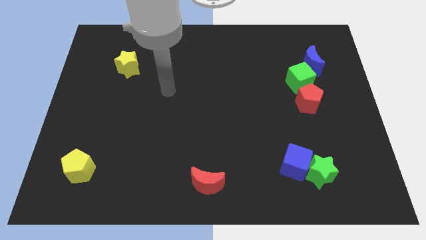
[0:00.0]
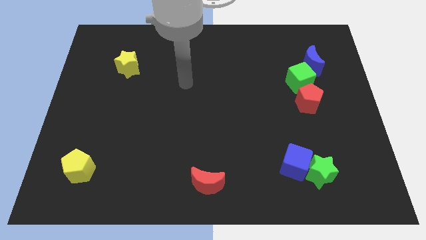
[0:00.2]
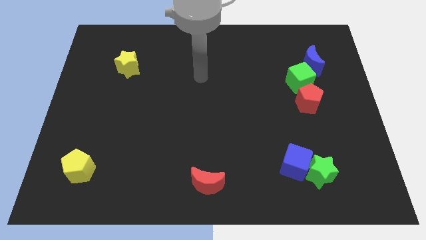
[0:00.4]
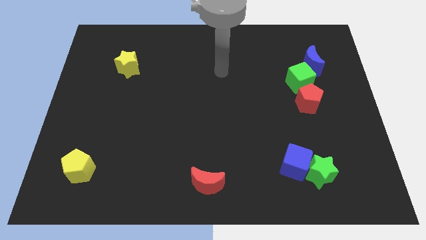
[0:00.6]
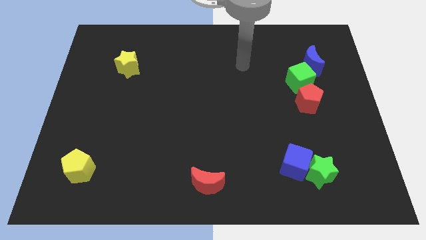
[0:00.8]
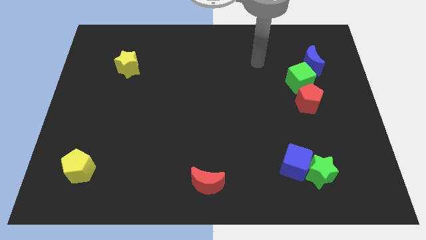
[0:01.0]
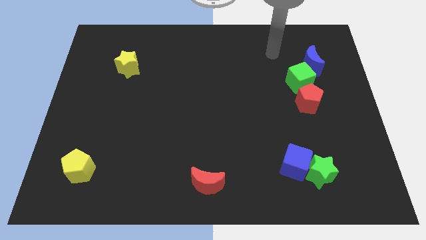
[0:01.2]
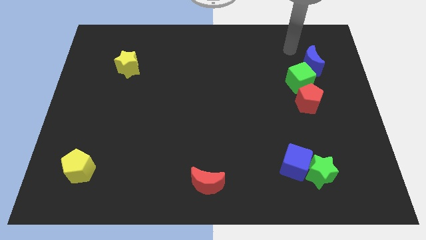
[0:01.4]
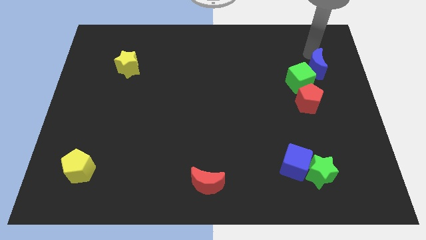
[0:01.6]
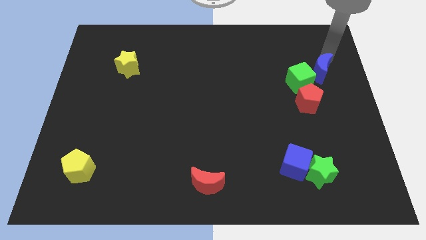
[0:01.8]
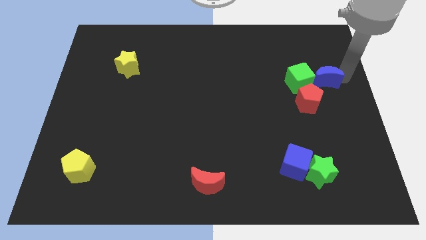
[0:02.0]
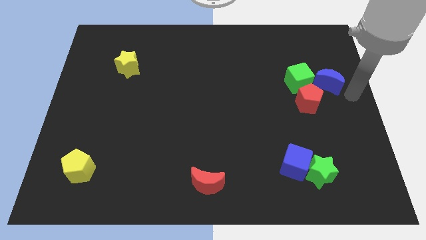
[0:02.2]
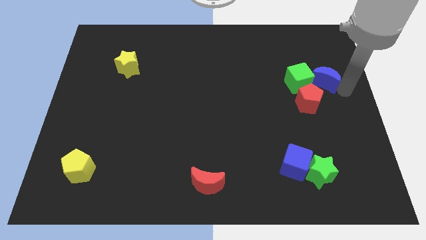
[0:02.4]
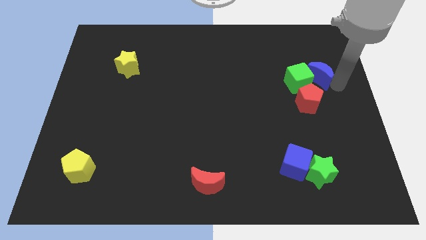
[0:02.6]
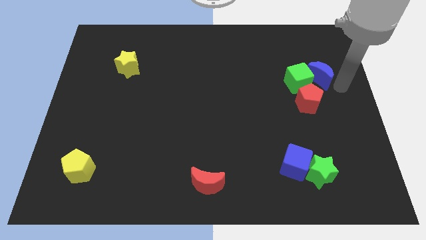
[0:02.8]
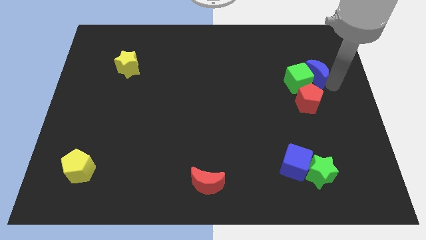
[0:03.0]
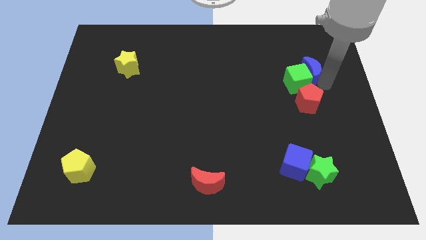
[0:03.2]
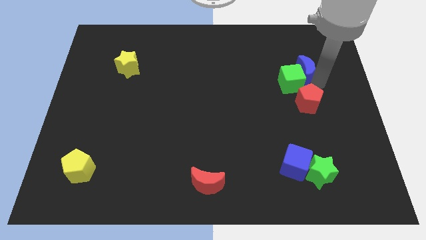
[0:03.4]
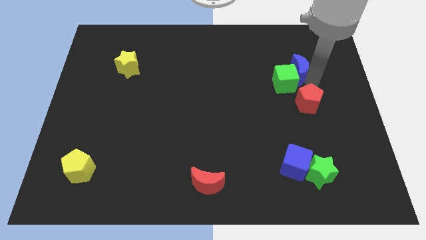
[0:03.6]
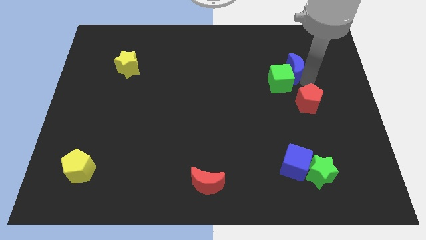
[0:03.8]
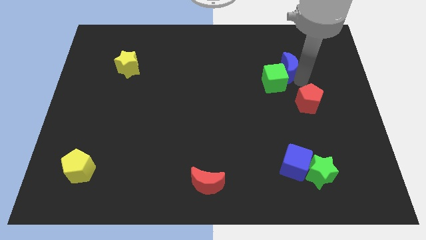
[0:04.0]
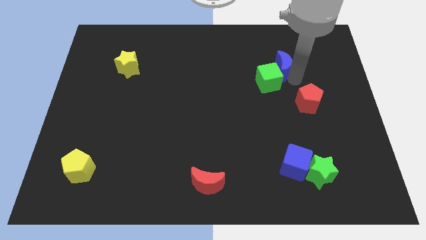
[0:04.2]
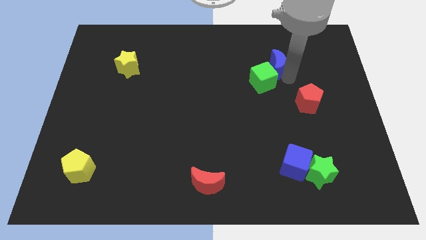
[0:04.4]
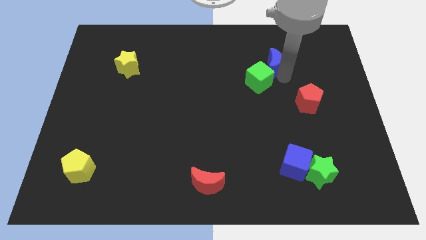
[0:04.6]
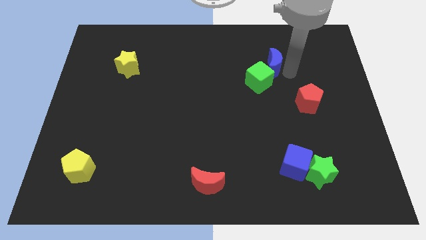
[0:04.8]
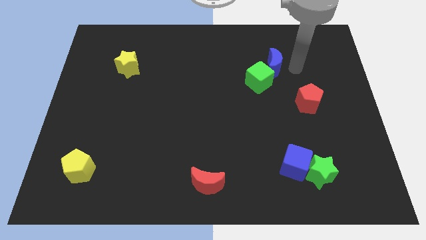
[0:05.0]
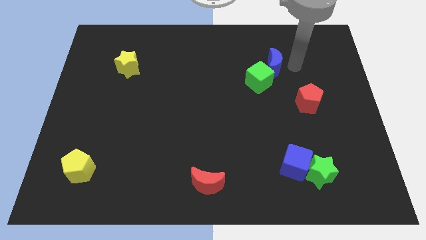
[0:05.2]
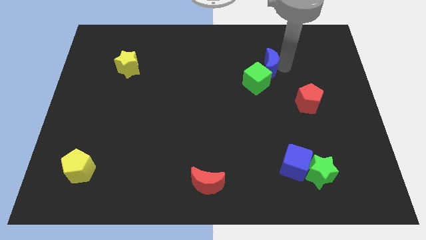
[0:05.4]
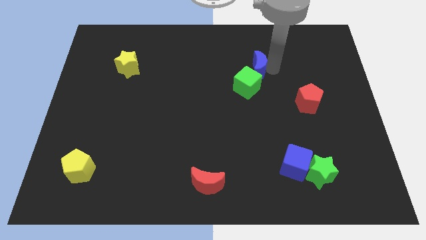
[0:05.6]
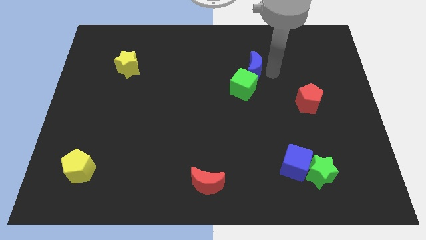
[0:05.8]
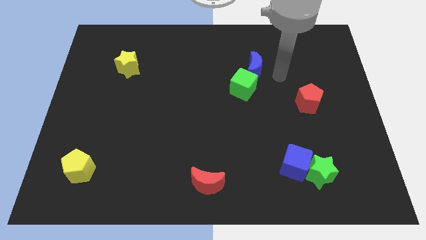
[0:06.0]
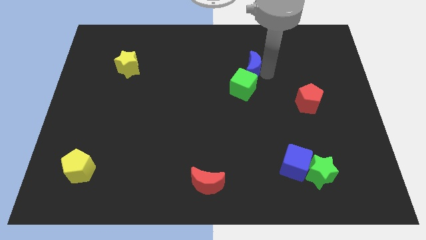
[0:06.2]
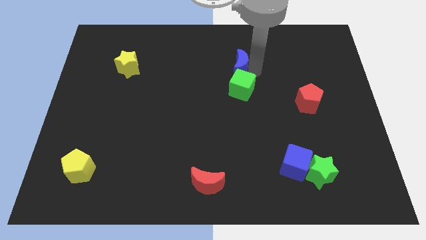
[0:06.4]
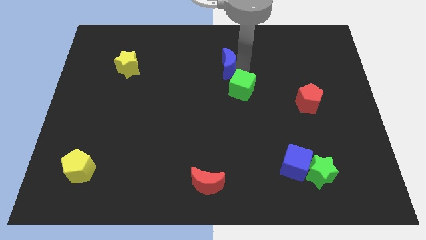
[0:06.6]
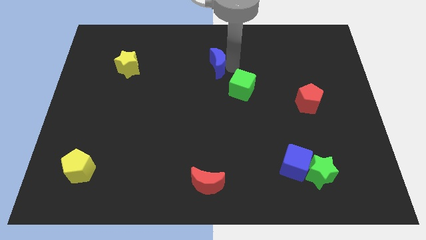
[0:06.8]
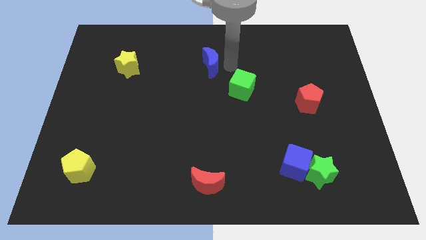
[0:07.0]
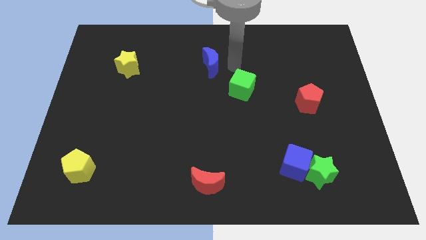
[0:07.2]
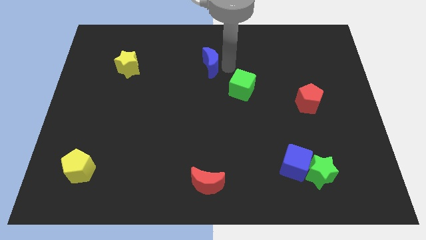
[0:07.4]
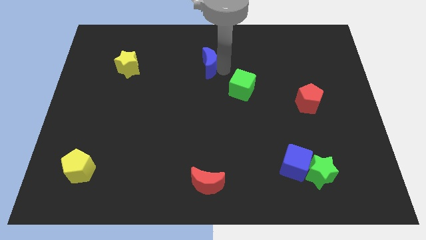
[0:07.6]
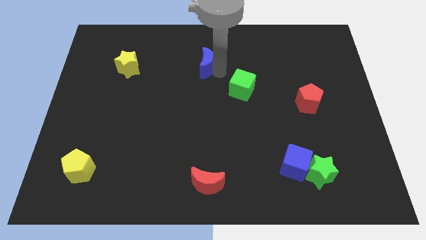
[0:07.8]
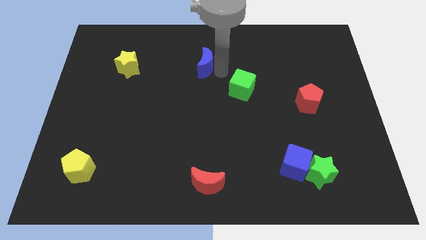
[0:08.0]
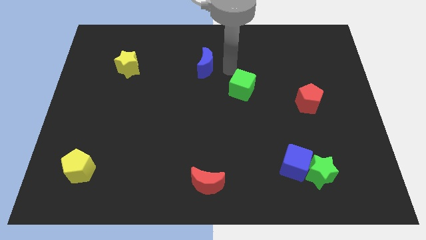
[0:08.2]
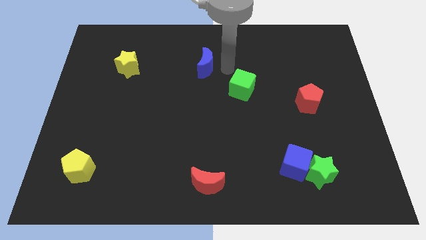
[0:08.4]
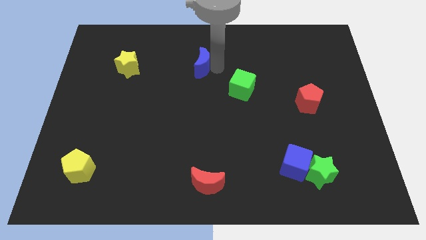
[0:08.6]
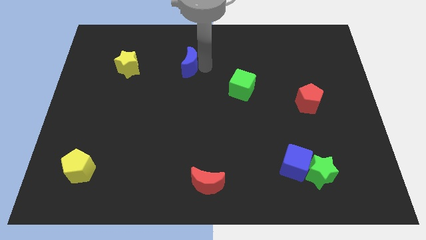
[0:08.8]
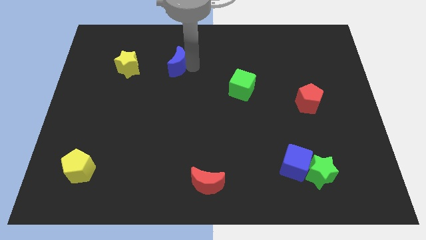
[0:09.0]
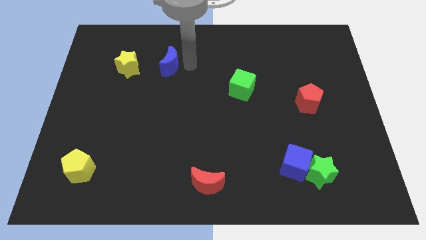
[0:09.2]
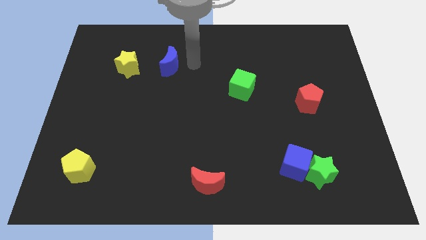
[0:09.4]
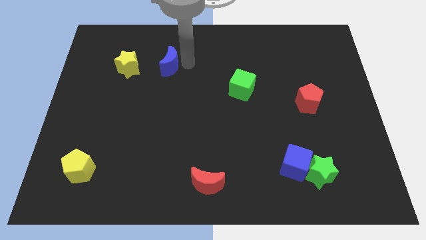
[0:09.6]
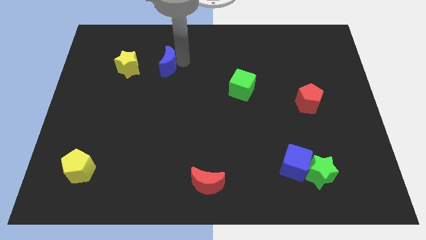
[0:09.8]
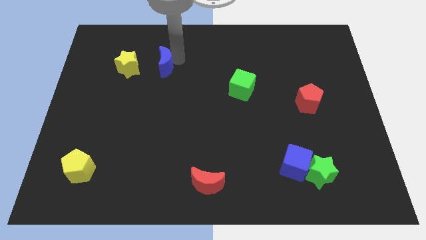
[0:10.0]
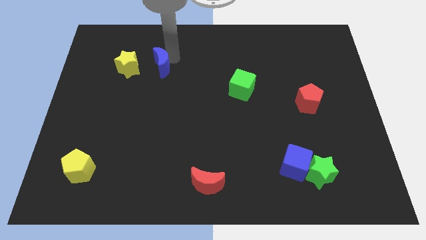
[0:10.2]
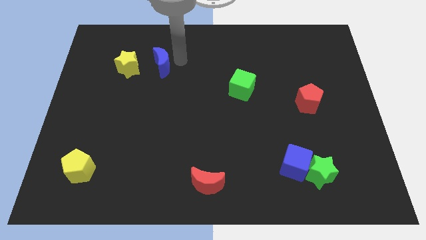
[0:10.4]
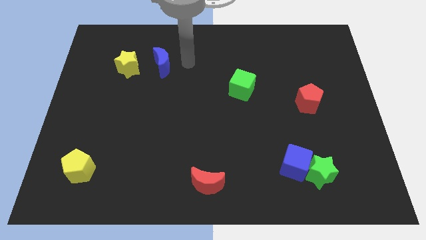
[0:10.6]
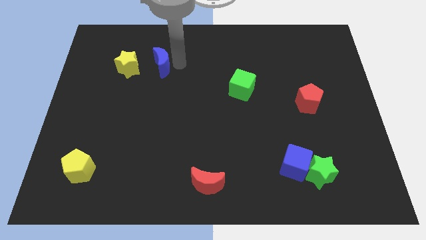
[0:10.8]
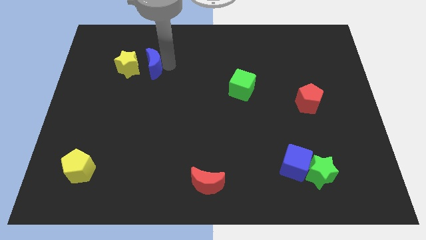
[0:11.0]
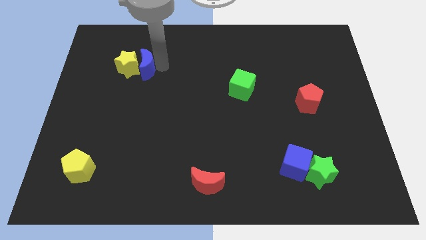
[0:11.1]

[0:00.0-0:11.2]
slide the blue moon next to the yellow star

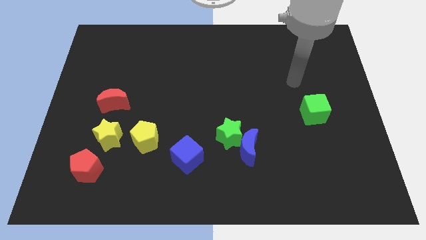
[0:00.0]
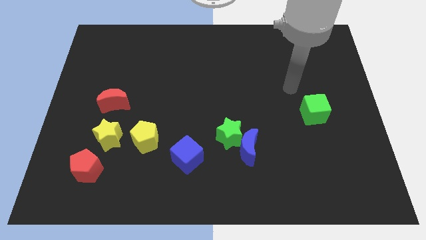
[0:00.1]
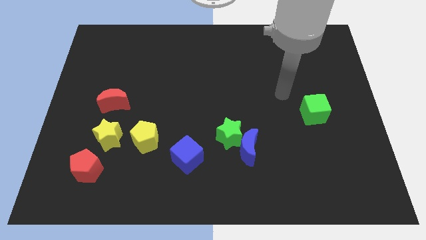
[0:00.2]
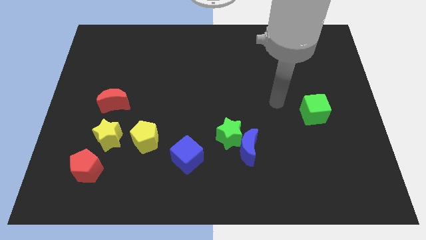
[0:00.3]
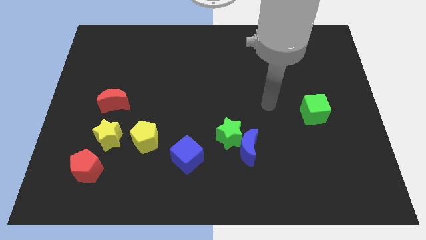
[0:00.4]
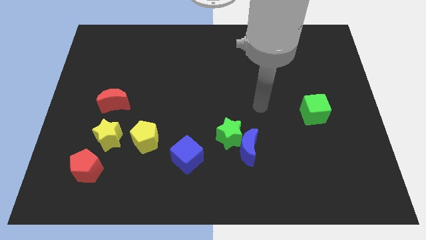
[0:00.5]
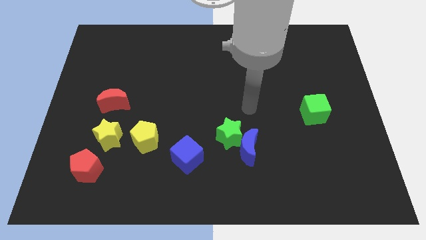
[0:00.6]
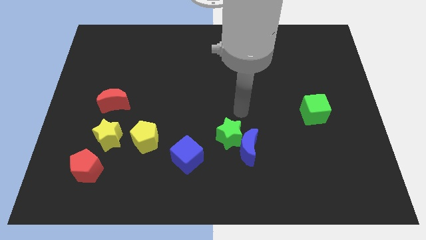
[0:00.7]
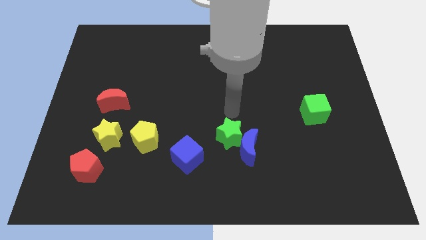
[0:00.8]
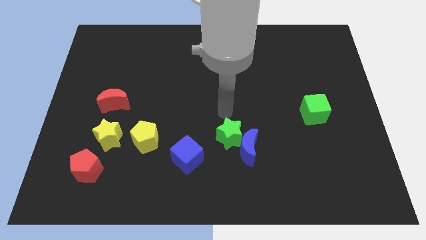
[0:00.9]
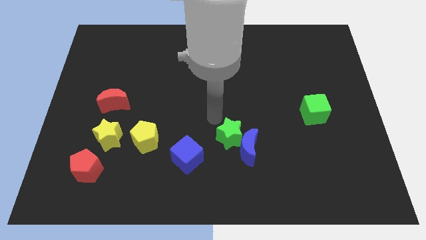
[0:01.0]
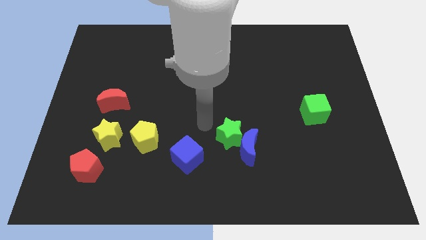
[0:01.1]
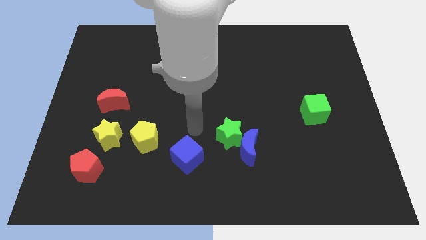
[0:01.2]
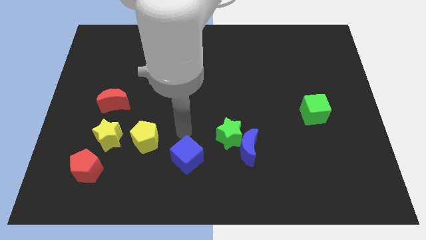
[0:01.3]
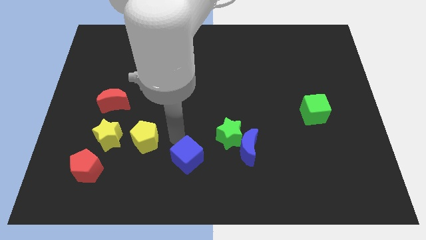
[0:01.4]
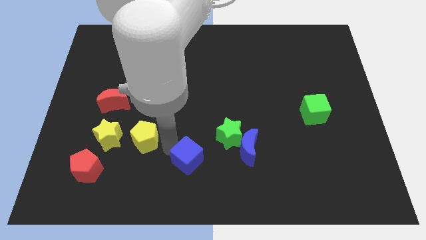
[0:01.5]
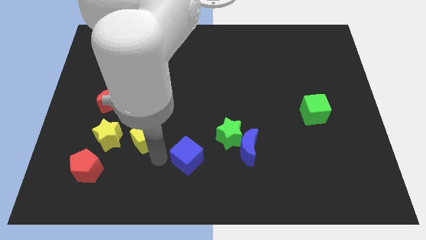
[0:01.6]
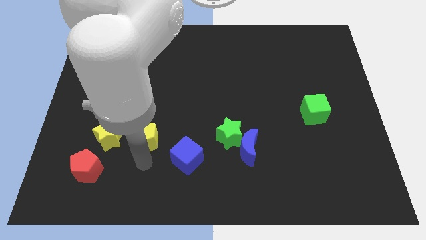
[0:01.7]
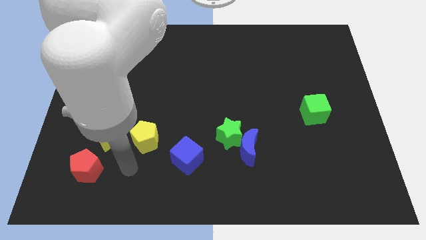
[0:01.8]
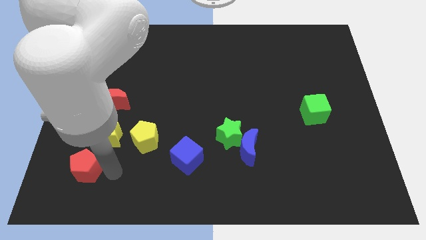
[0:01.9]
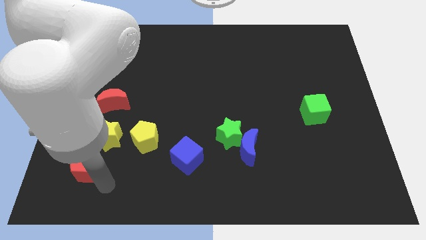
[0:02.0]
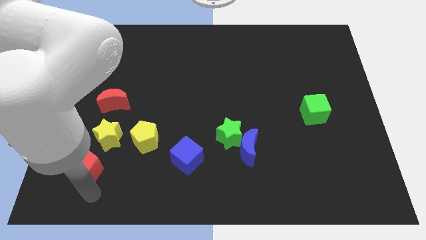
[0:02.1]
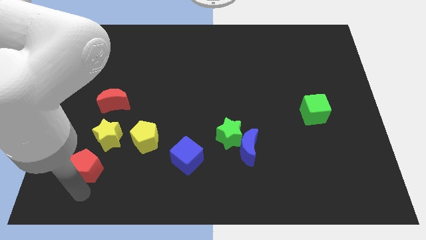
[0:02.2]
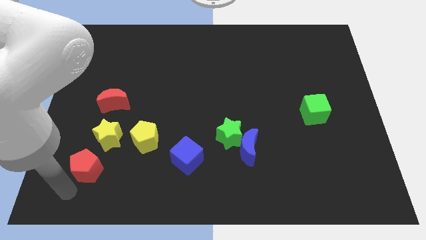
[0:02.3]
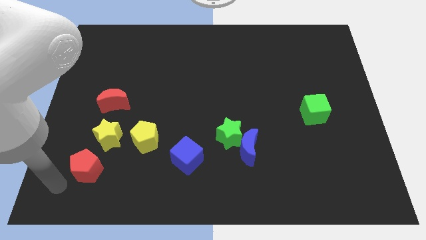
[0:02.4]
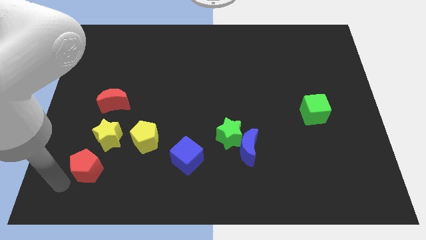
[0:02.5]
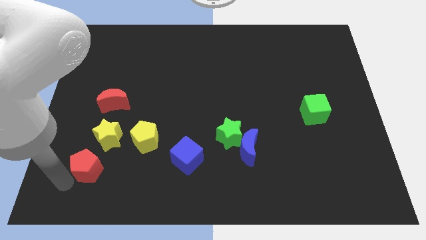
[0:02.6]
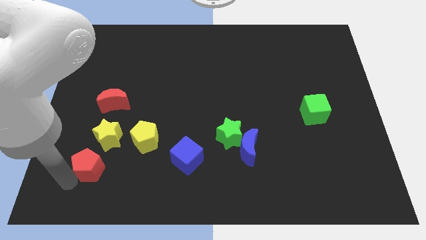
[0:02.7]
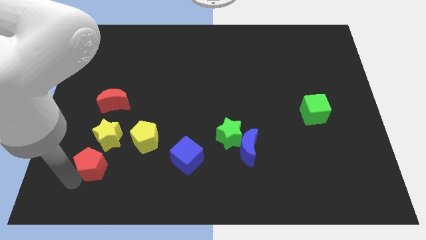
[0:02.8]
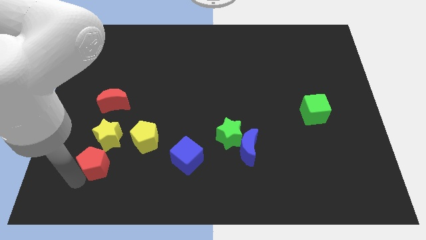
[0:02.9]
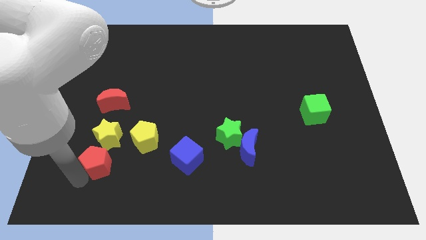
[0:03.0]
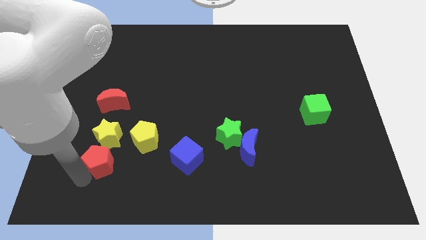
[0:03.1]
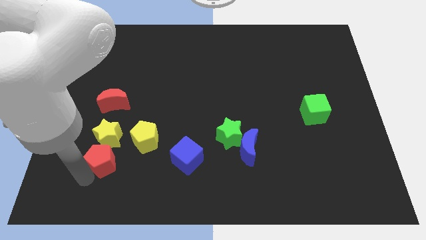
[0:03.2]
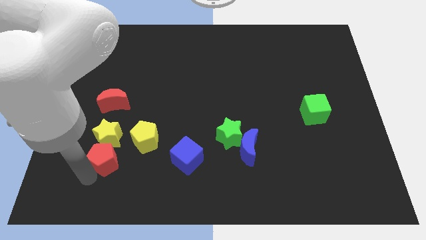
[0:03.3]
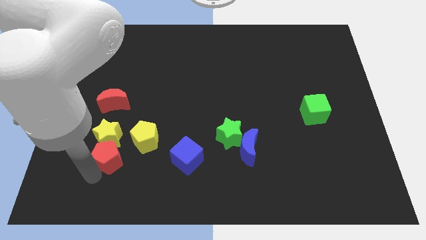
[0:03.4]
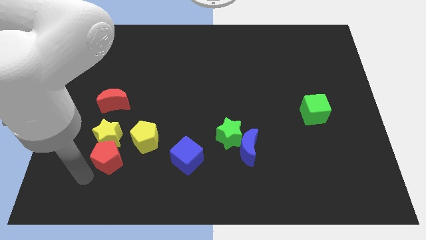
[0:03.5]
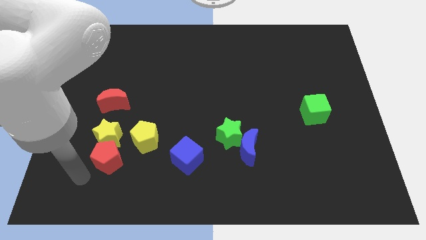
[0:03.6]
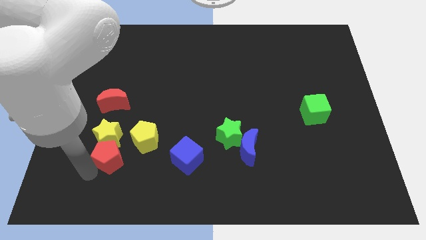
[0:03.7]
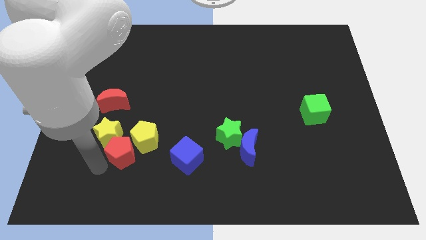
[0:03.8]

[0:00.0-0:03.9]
slide the red pentagon to the yellow pentagon
